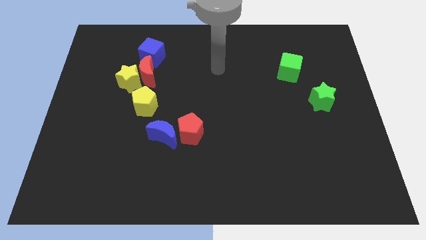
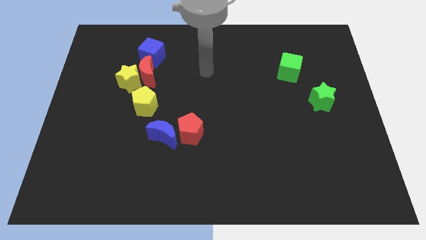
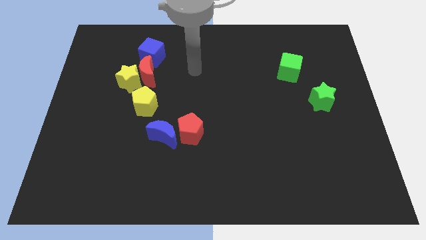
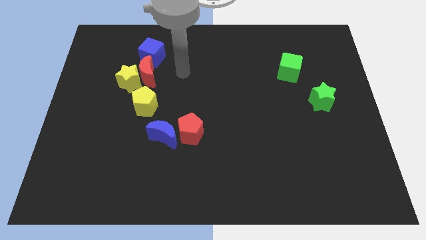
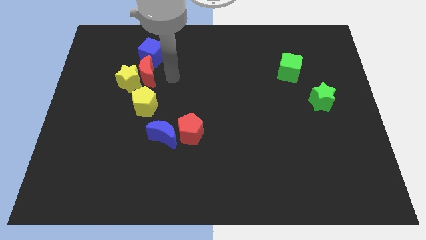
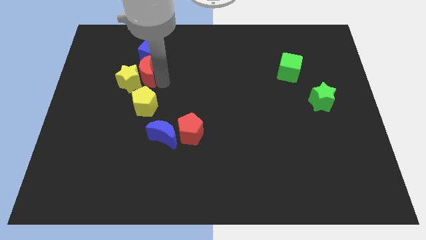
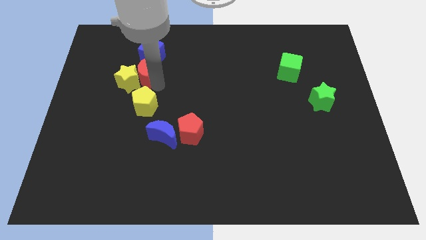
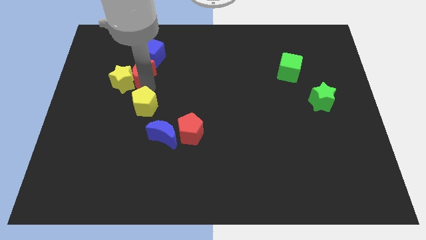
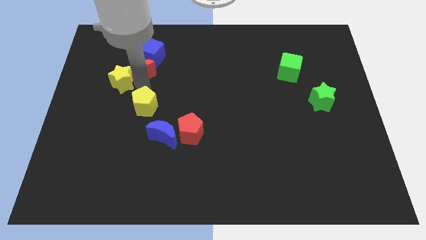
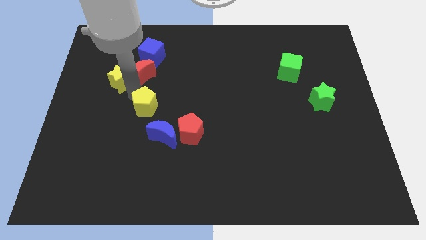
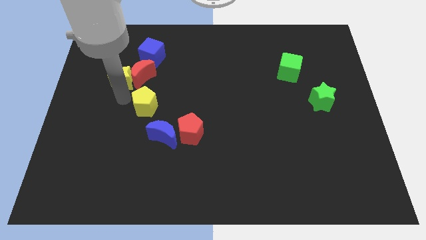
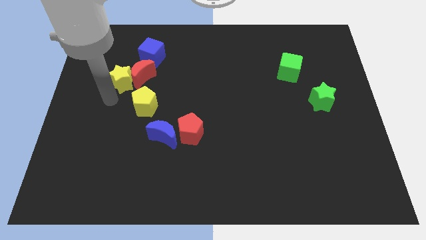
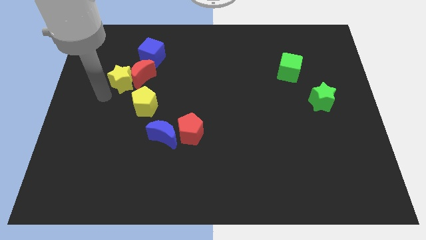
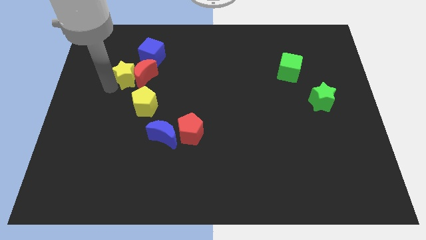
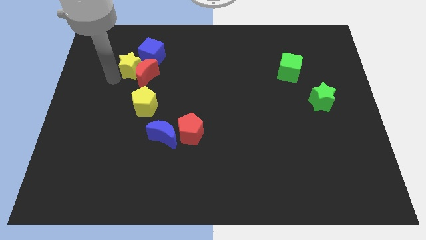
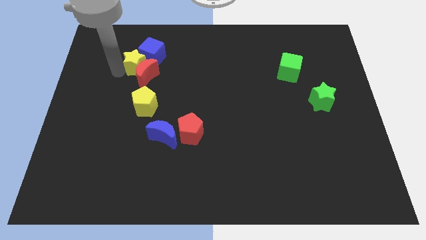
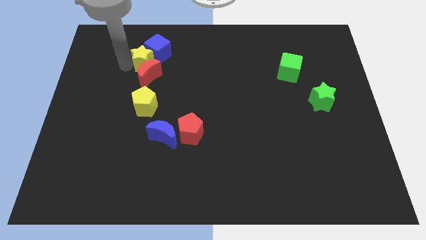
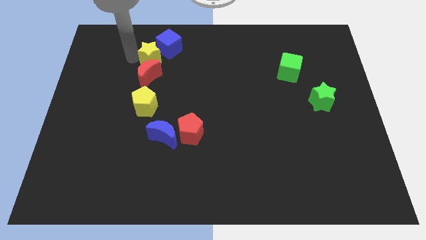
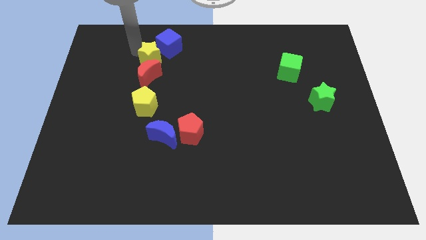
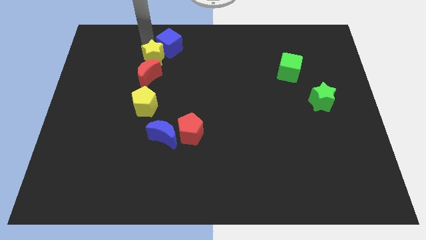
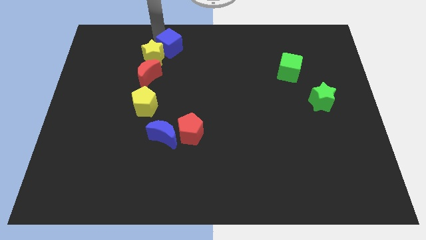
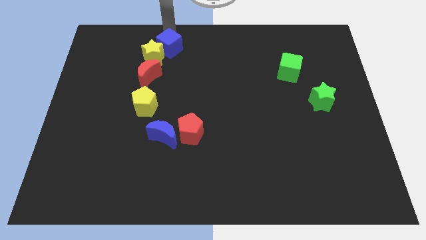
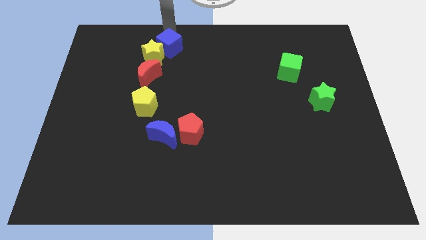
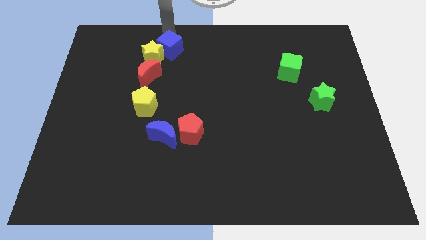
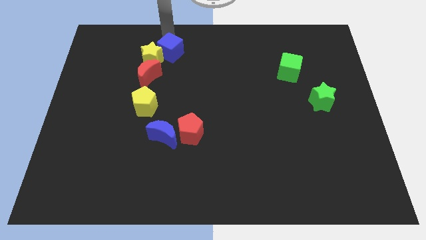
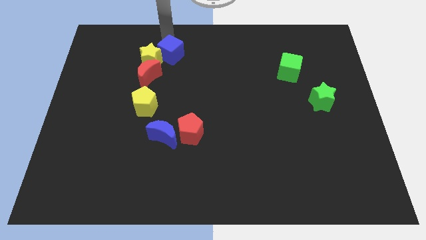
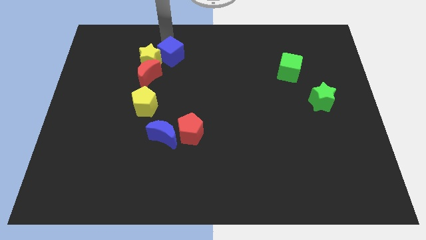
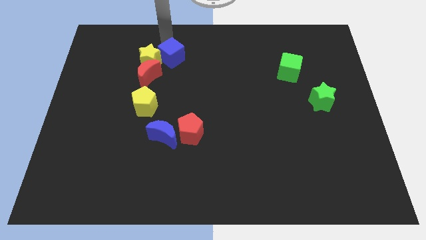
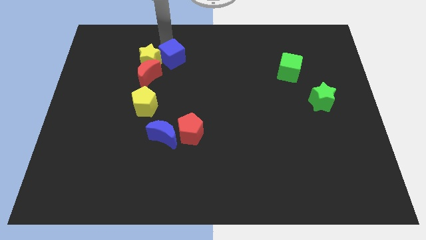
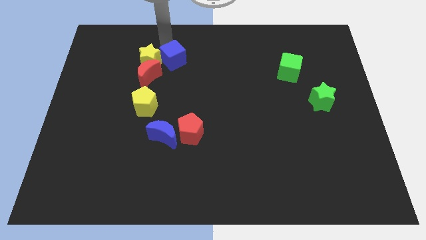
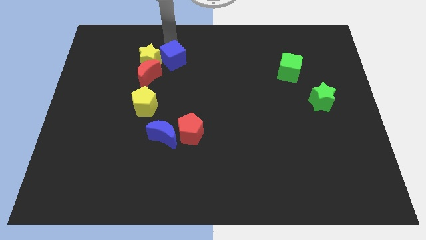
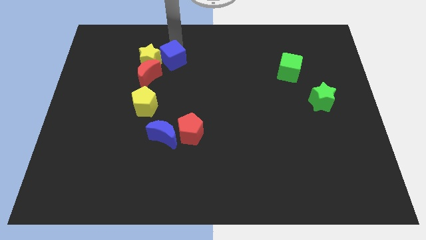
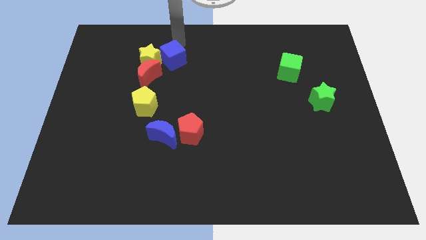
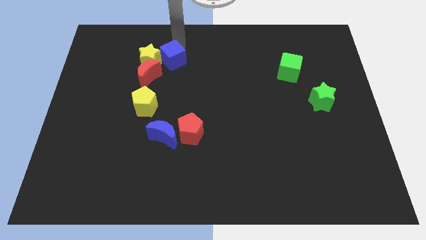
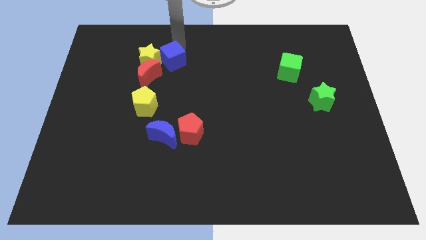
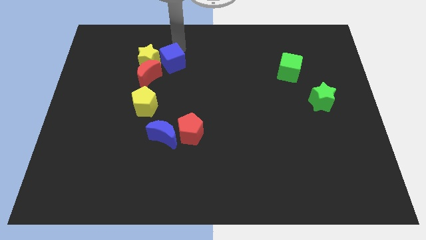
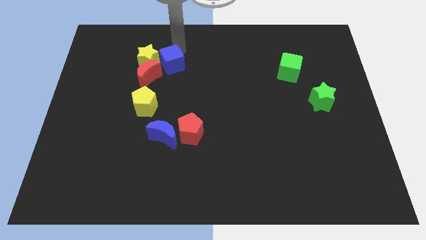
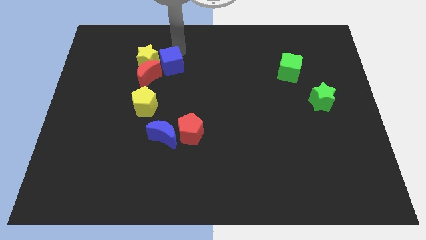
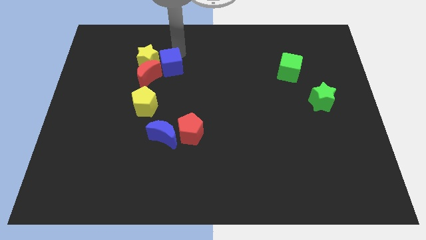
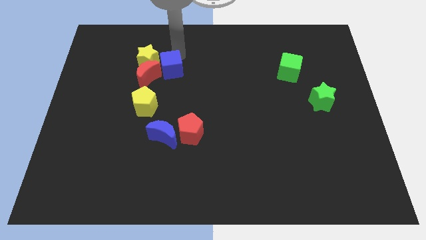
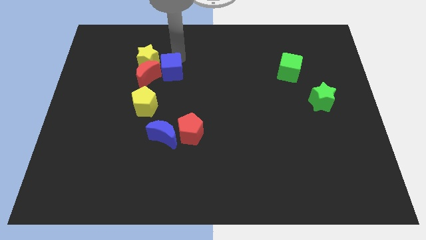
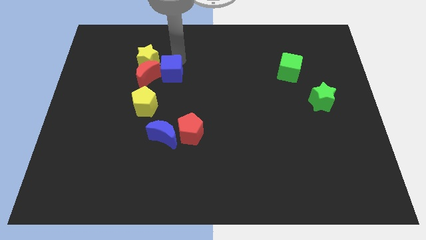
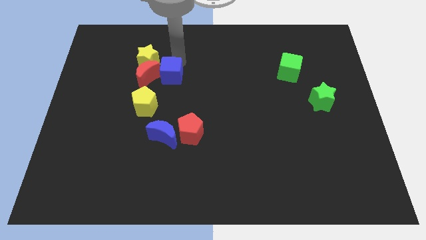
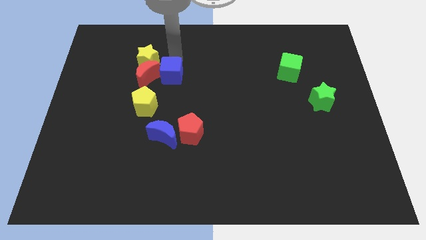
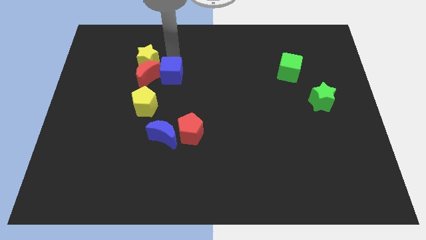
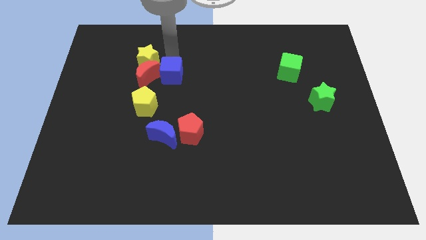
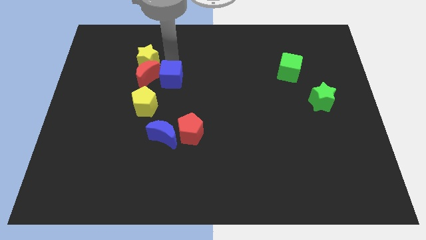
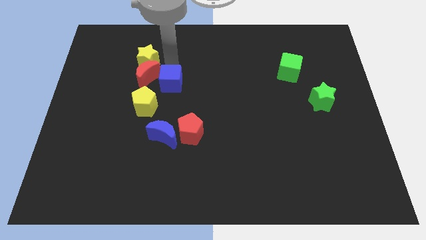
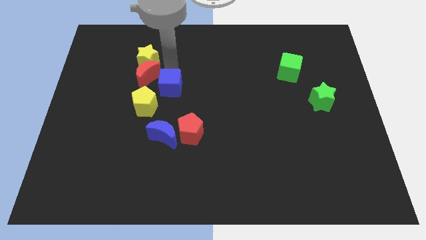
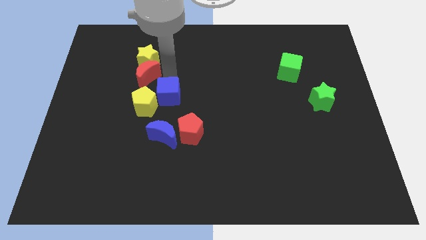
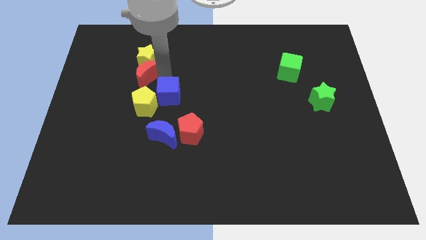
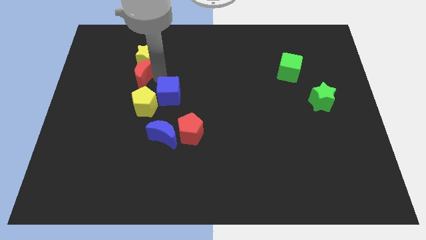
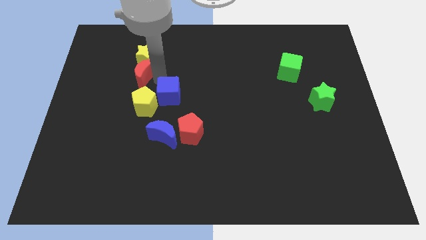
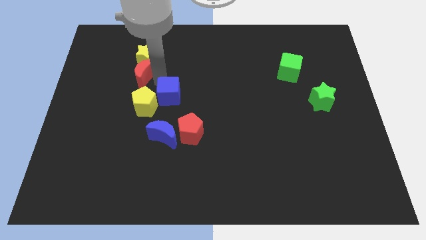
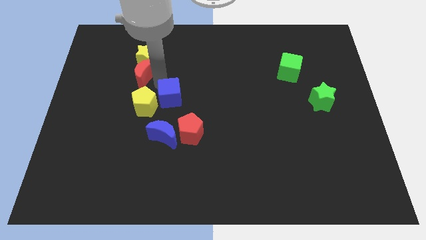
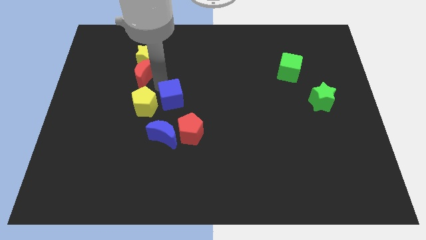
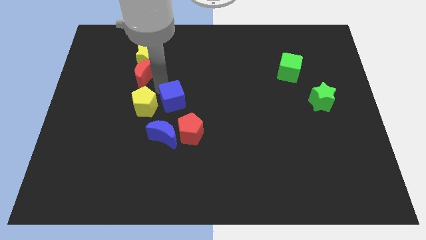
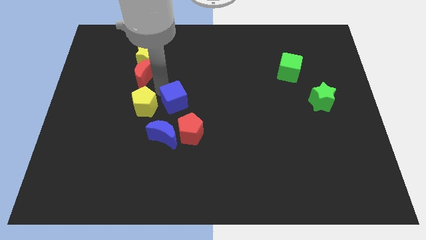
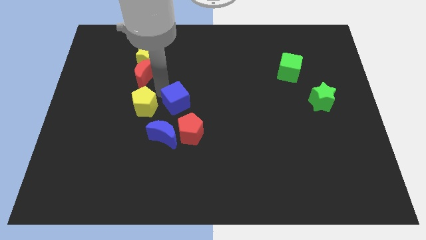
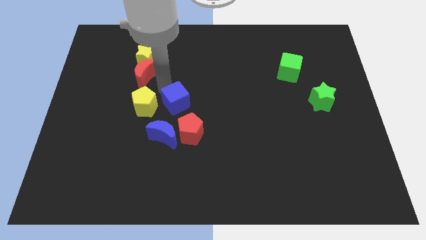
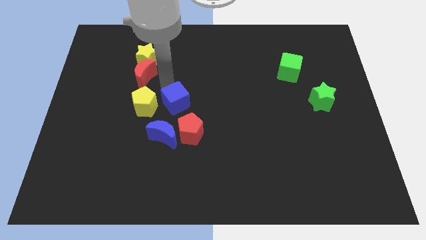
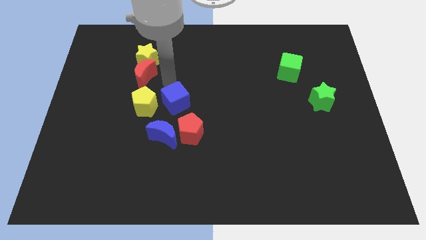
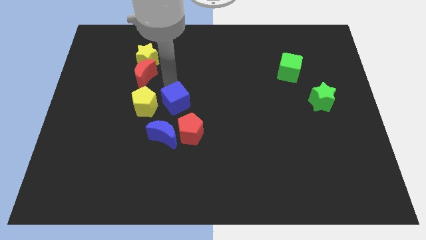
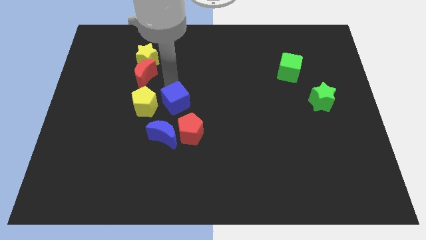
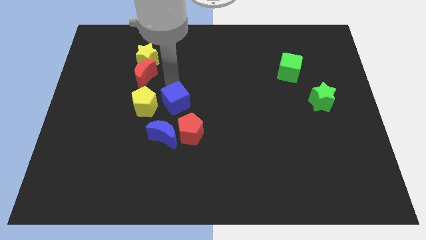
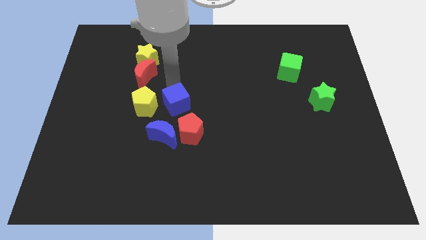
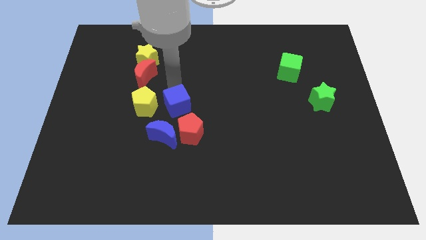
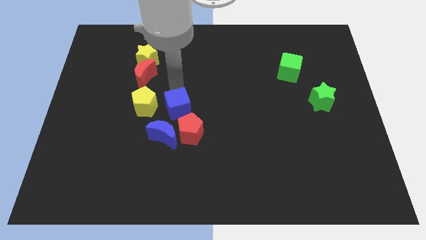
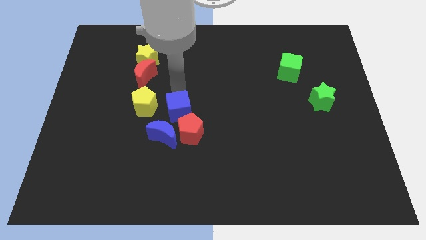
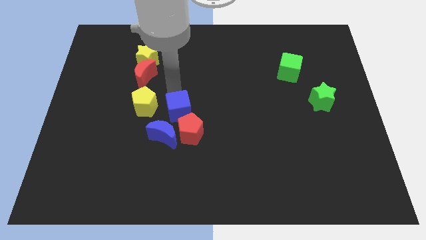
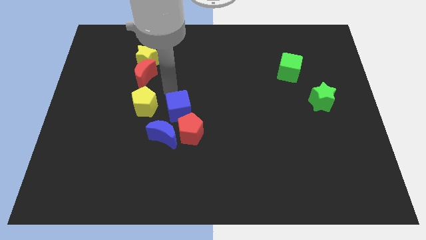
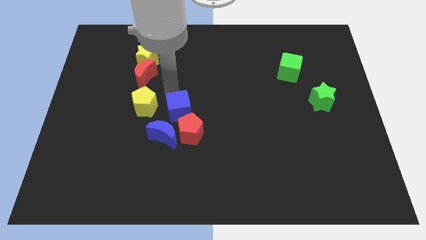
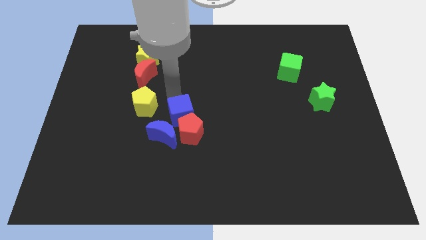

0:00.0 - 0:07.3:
move the blue cube next to the red pentagon
